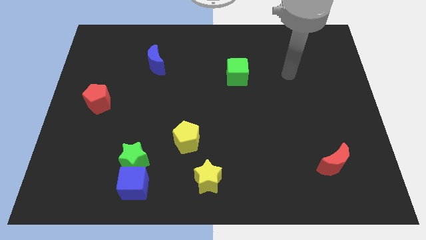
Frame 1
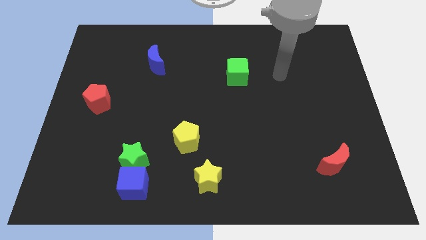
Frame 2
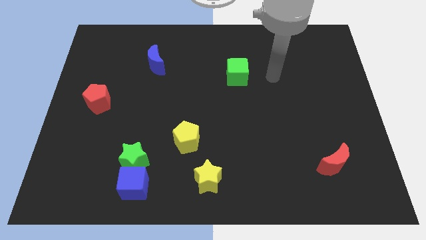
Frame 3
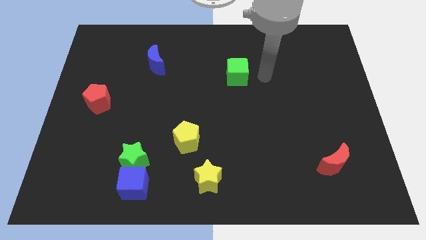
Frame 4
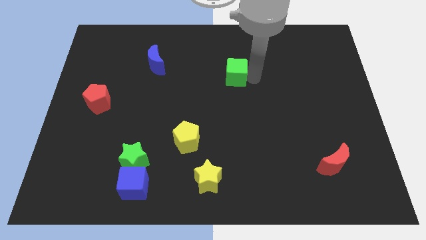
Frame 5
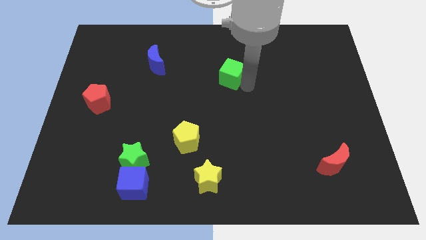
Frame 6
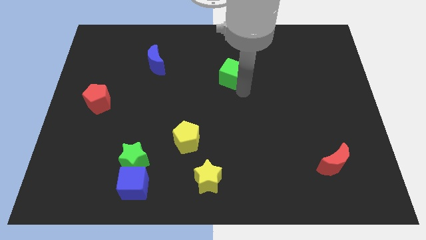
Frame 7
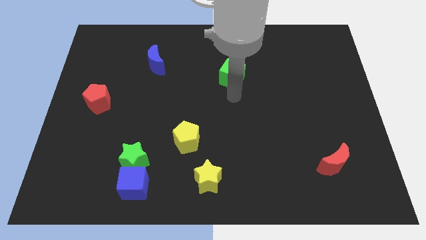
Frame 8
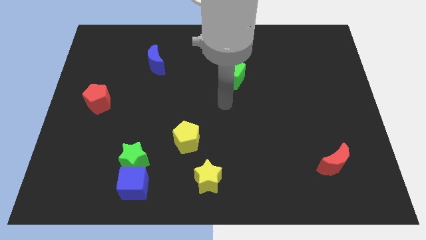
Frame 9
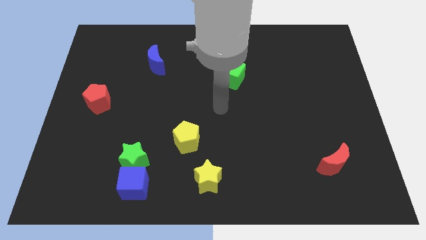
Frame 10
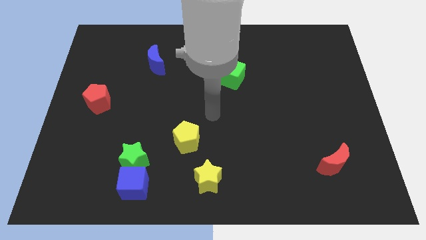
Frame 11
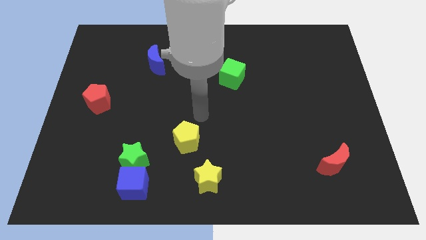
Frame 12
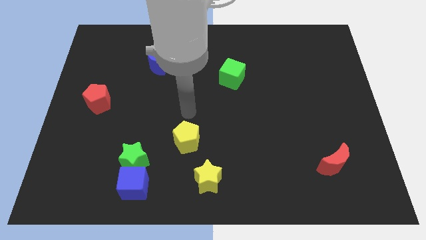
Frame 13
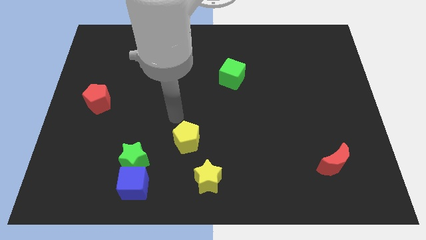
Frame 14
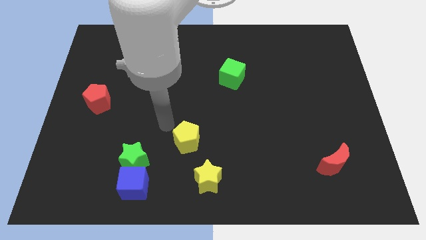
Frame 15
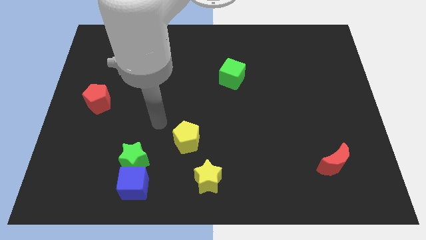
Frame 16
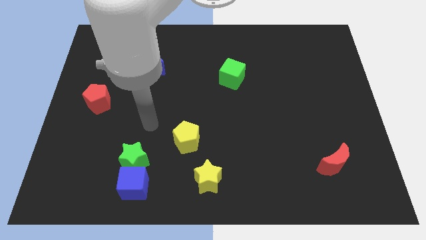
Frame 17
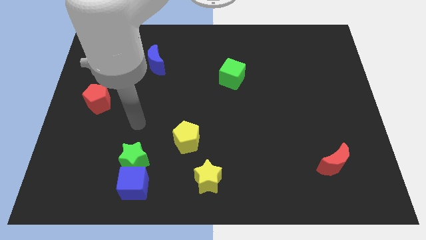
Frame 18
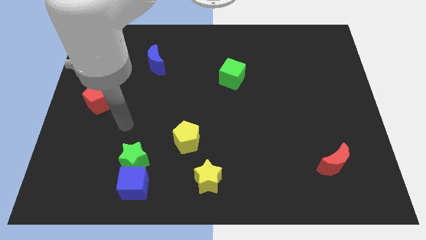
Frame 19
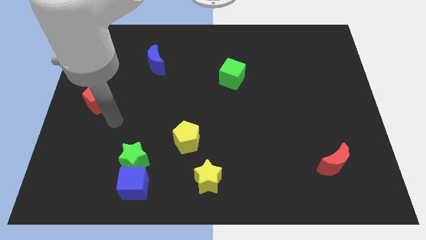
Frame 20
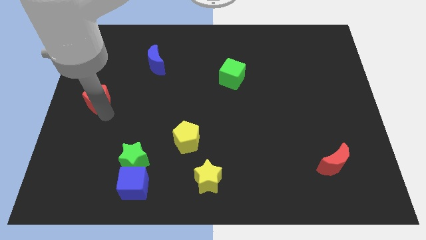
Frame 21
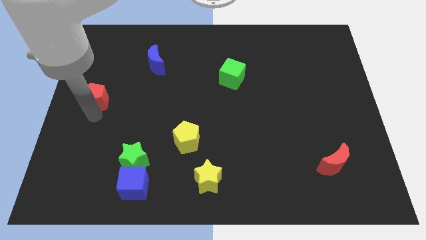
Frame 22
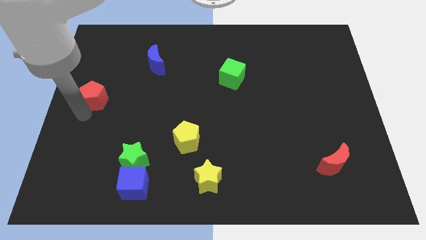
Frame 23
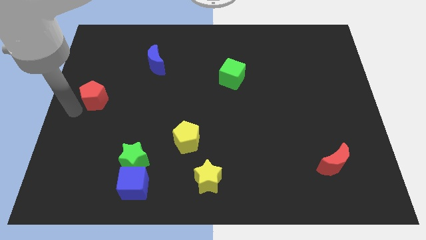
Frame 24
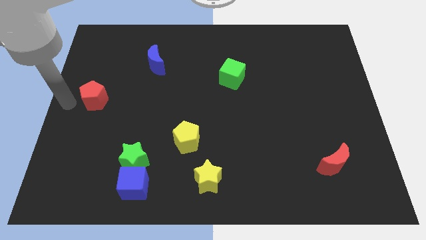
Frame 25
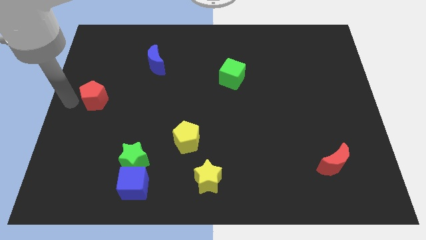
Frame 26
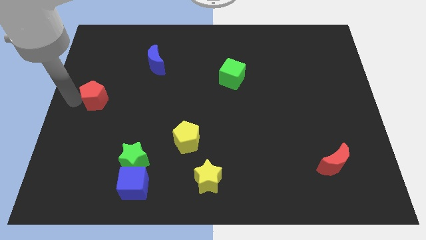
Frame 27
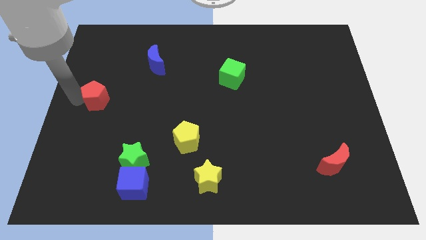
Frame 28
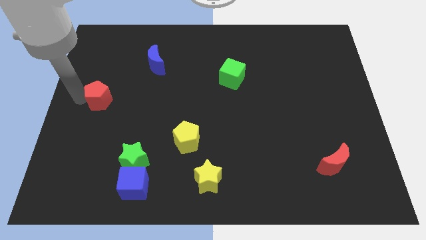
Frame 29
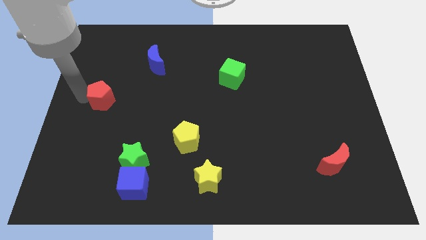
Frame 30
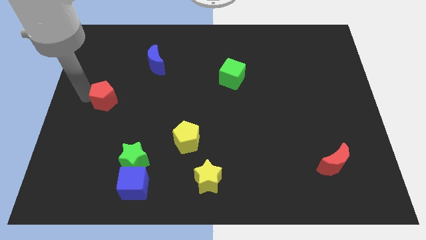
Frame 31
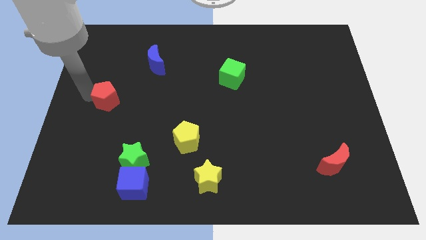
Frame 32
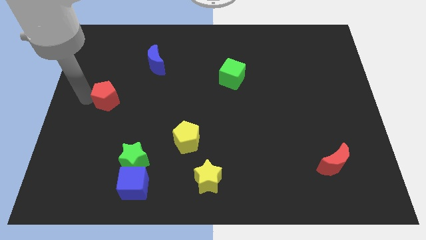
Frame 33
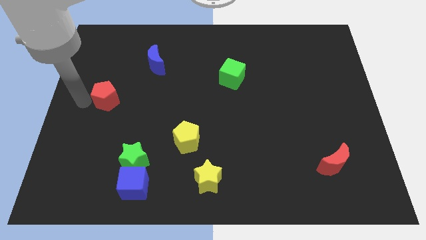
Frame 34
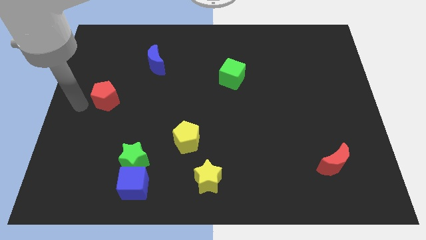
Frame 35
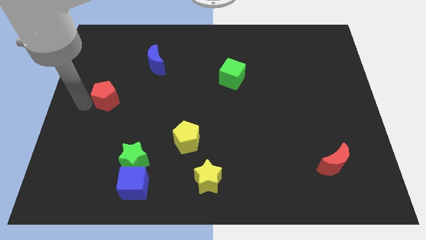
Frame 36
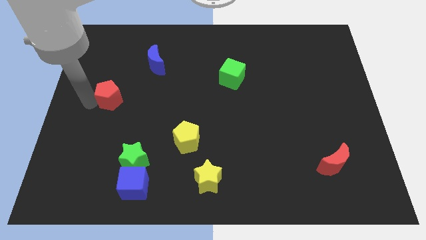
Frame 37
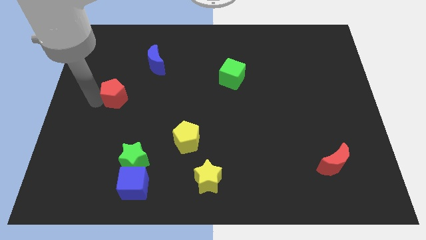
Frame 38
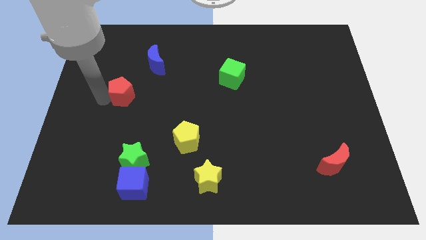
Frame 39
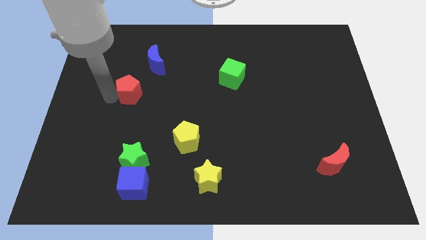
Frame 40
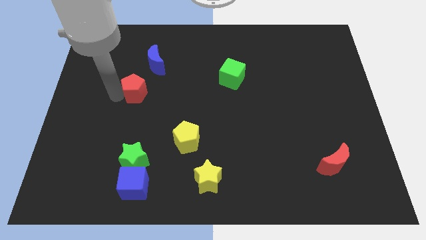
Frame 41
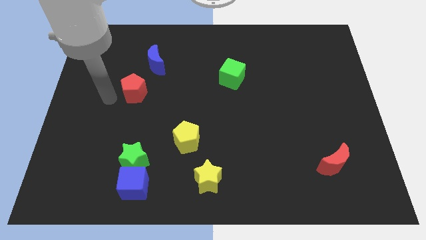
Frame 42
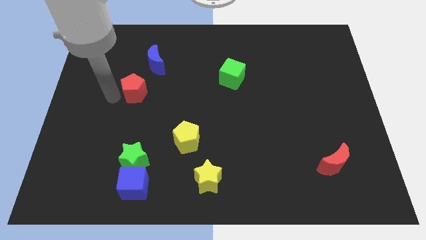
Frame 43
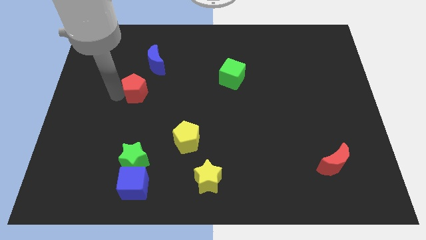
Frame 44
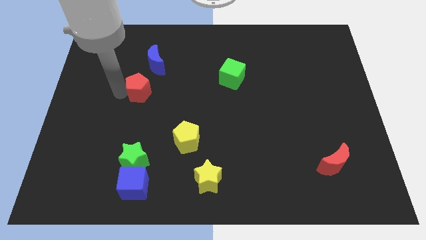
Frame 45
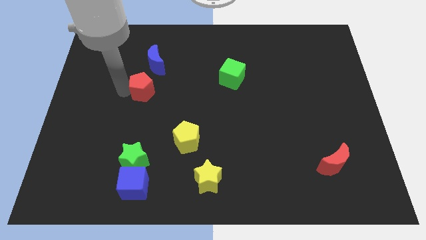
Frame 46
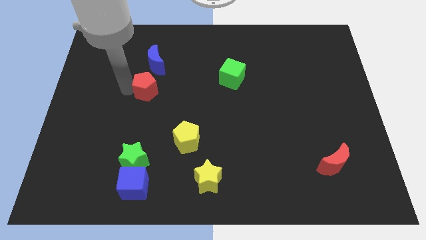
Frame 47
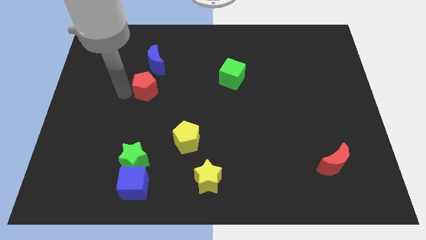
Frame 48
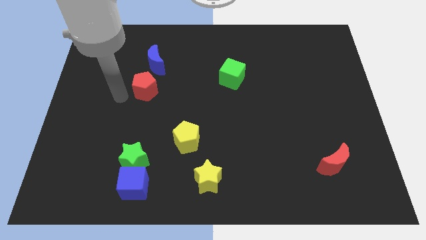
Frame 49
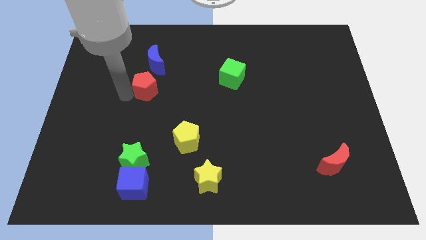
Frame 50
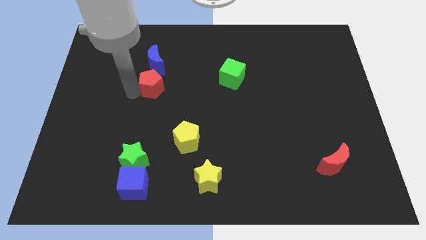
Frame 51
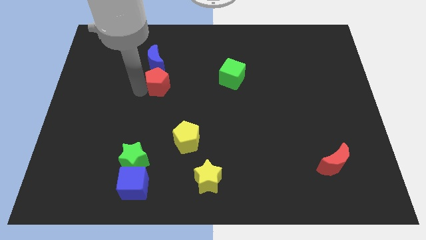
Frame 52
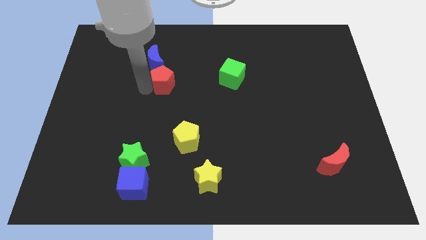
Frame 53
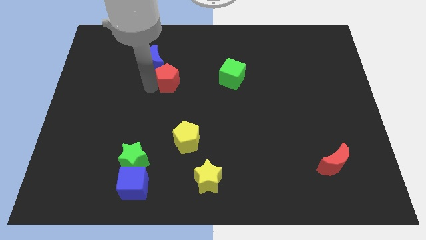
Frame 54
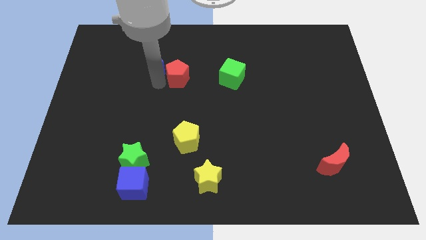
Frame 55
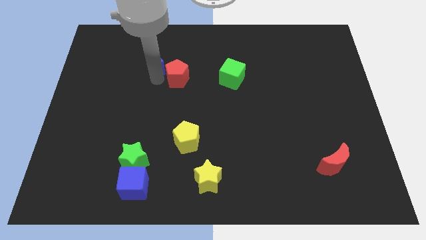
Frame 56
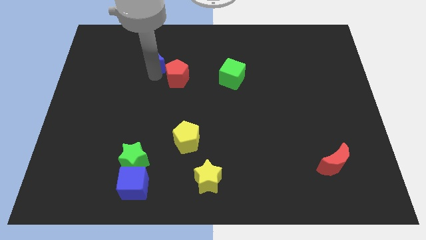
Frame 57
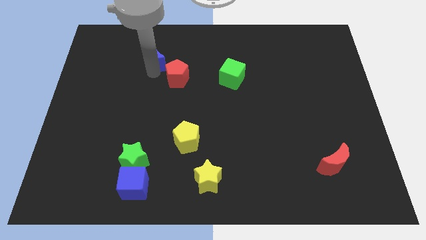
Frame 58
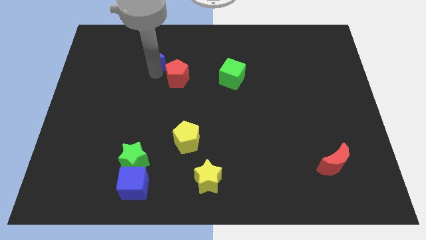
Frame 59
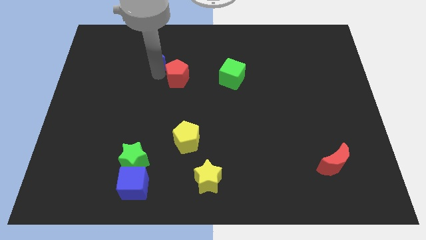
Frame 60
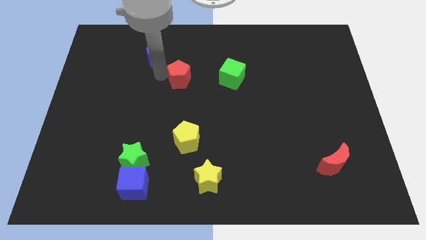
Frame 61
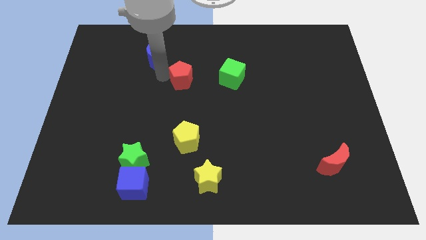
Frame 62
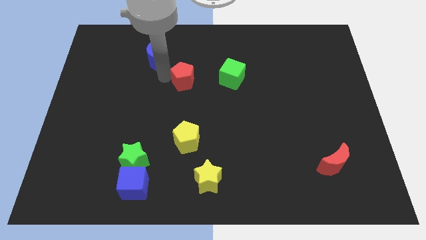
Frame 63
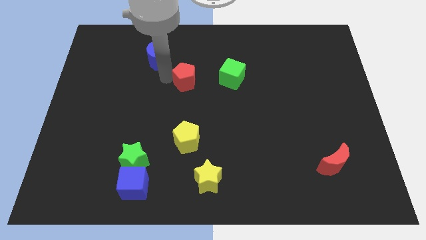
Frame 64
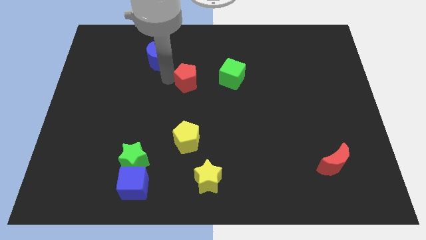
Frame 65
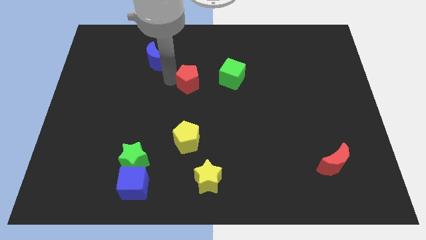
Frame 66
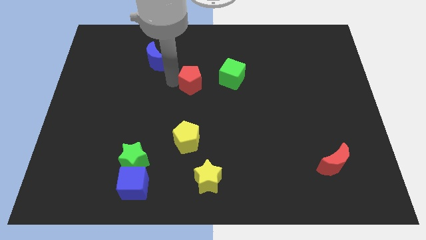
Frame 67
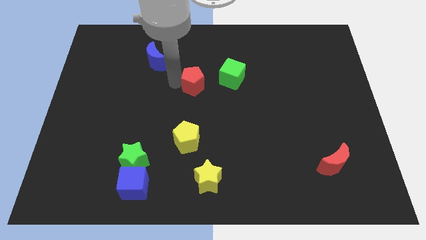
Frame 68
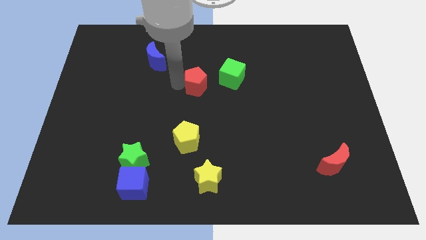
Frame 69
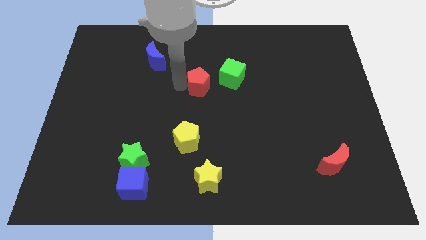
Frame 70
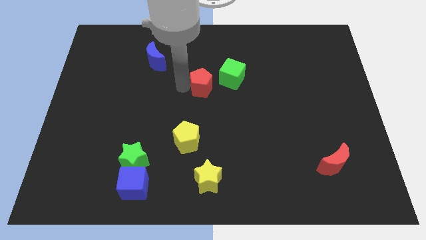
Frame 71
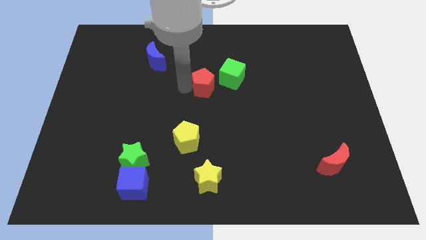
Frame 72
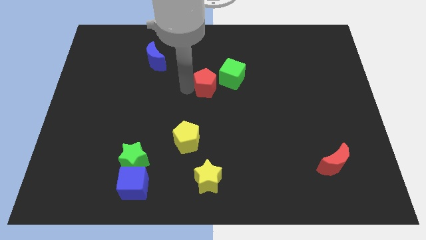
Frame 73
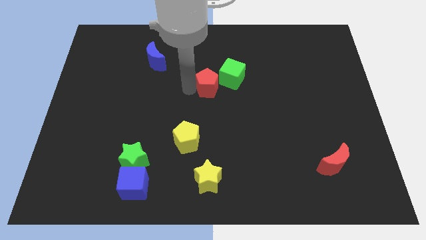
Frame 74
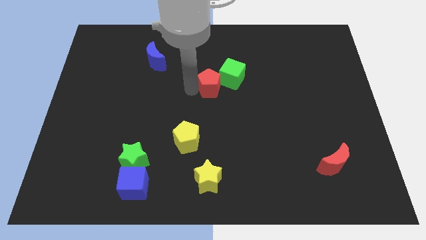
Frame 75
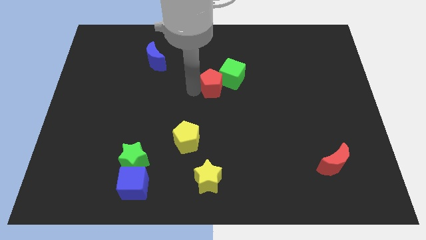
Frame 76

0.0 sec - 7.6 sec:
push the red pentagon close to the green cube

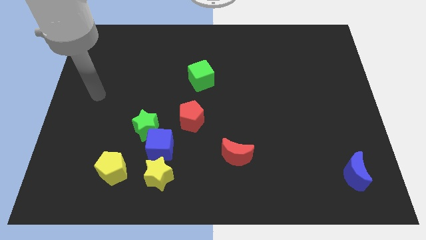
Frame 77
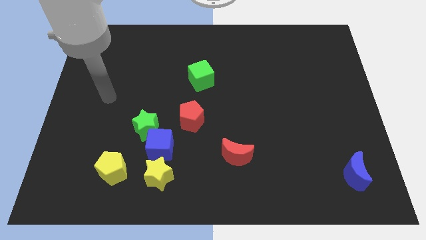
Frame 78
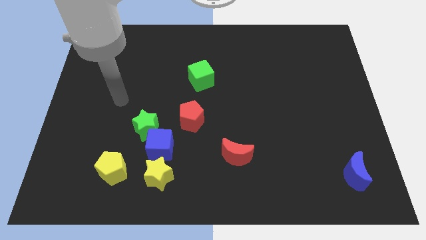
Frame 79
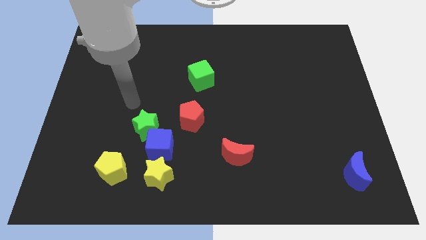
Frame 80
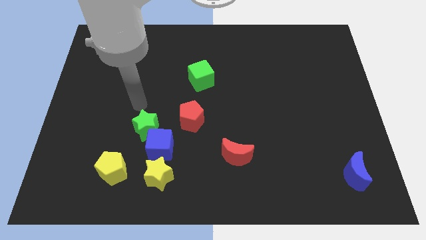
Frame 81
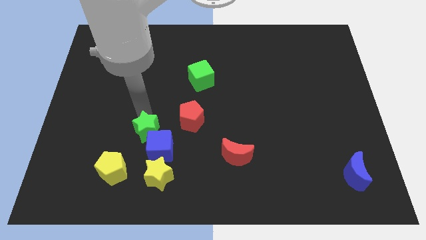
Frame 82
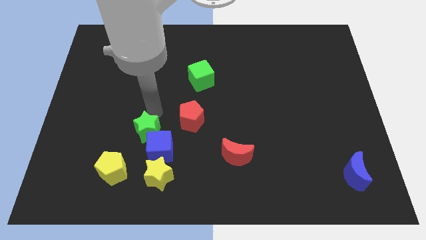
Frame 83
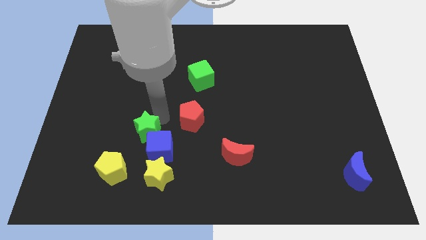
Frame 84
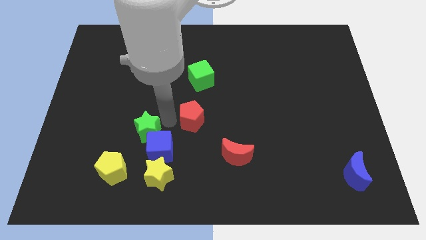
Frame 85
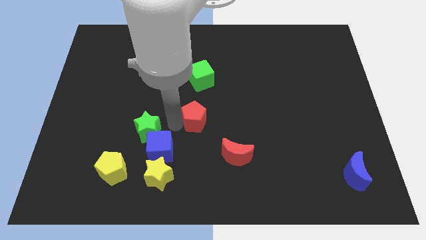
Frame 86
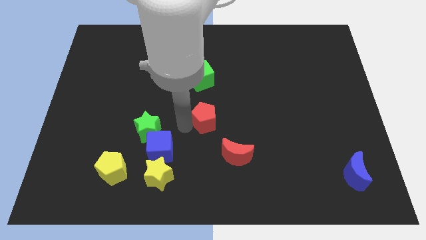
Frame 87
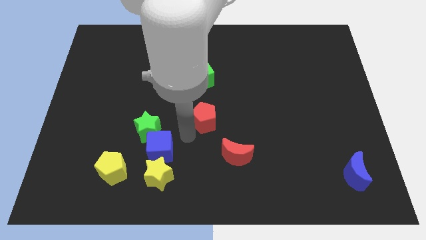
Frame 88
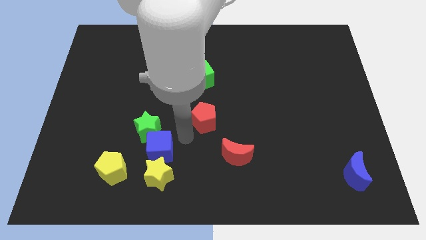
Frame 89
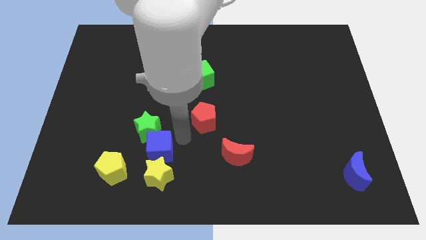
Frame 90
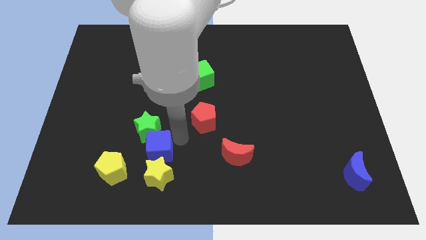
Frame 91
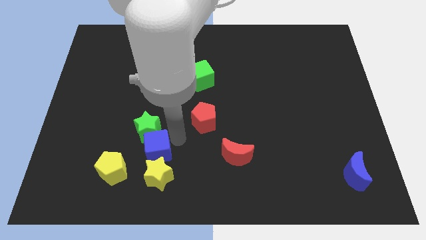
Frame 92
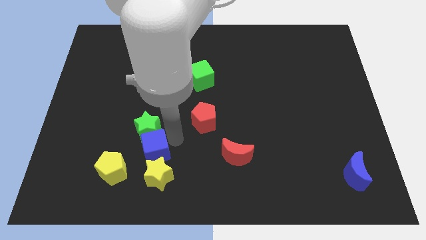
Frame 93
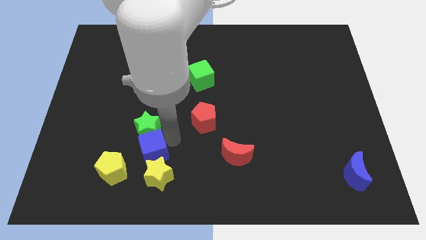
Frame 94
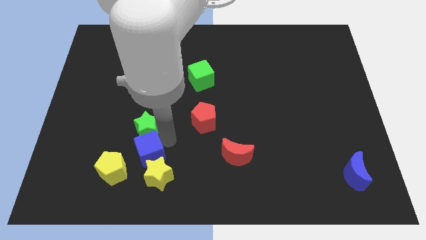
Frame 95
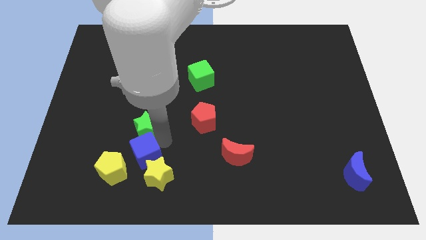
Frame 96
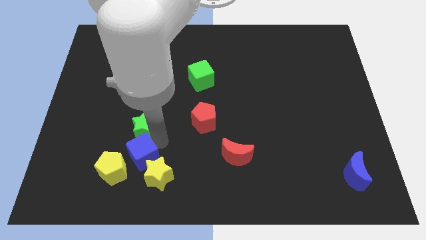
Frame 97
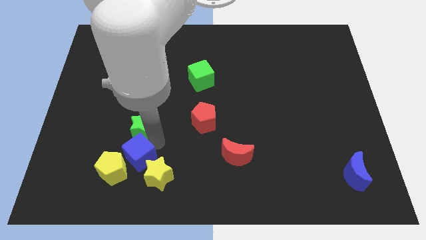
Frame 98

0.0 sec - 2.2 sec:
move the blue cube close to the yellow pentagon
